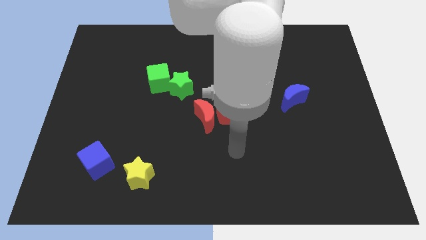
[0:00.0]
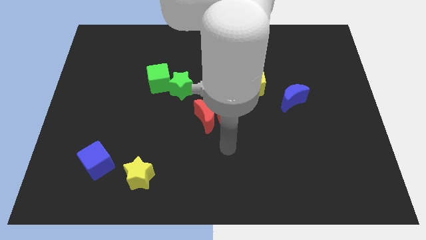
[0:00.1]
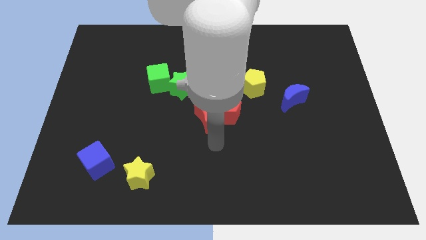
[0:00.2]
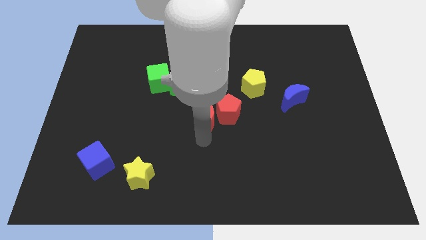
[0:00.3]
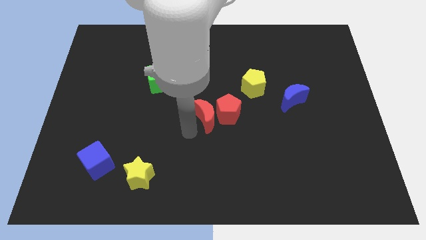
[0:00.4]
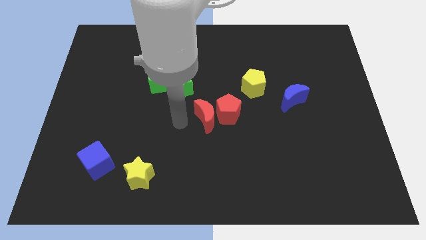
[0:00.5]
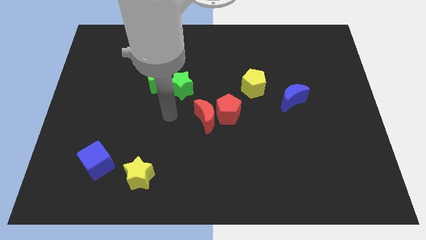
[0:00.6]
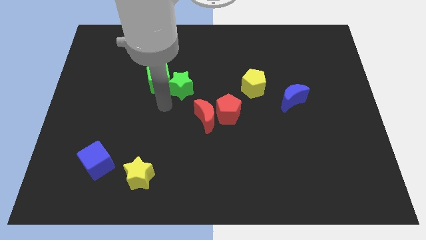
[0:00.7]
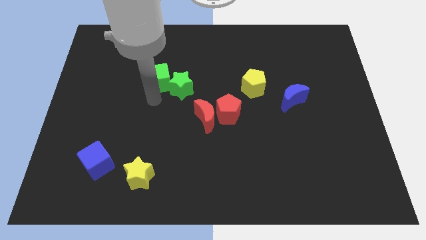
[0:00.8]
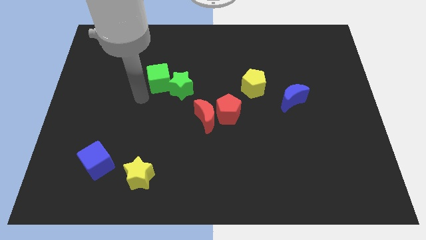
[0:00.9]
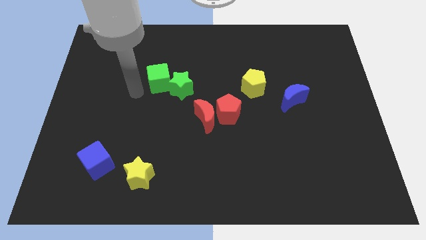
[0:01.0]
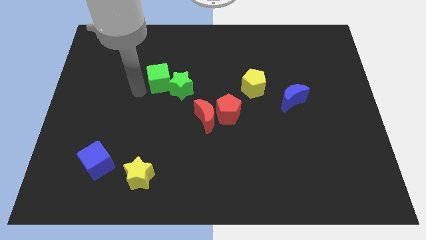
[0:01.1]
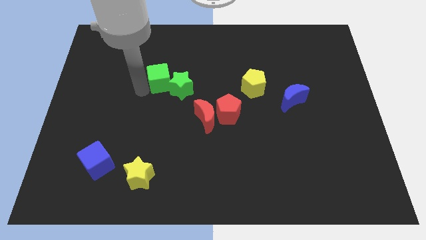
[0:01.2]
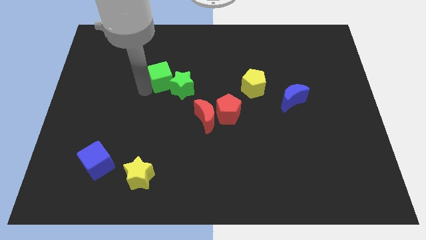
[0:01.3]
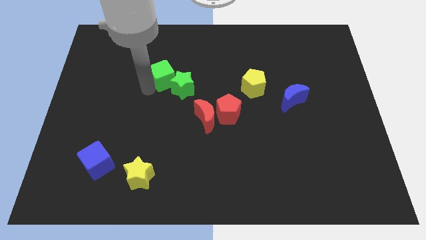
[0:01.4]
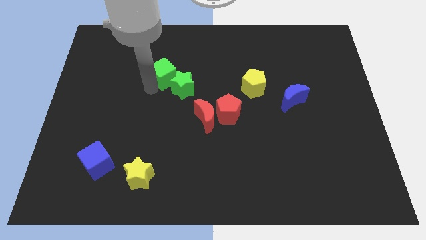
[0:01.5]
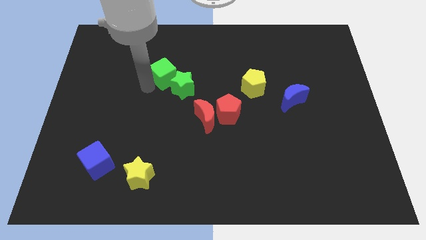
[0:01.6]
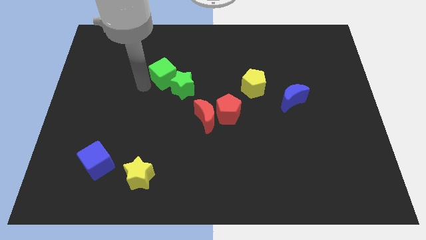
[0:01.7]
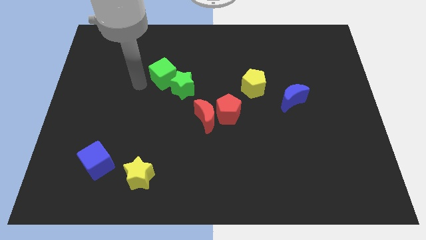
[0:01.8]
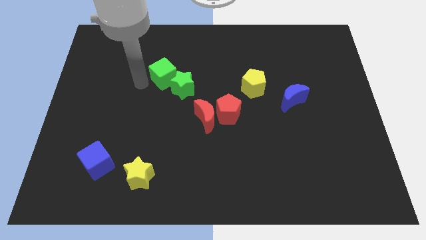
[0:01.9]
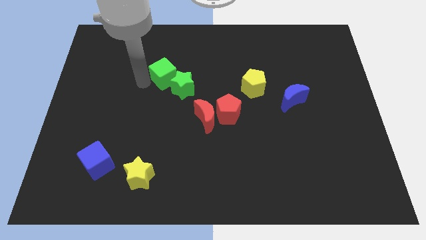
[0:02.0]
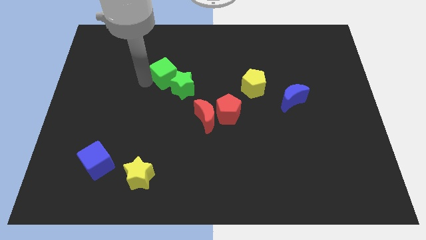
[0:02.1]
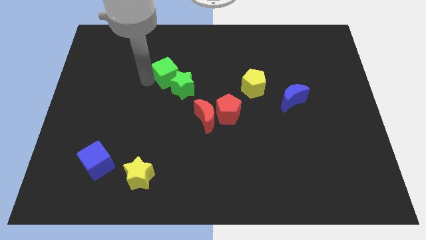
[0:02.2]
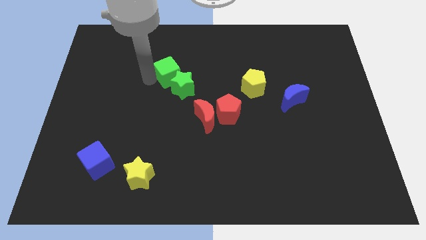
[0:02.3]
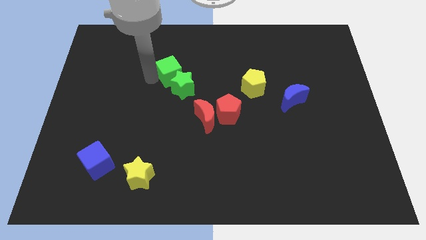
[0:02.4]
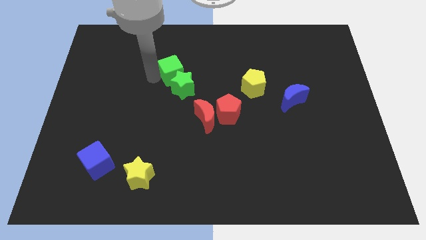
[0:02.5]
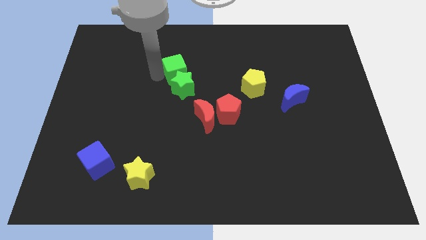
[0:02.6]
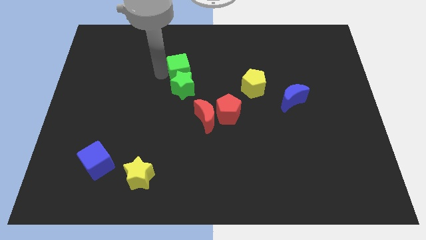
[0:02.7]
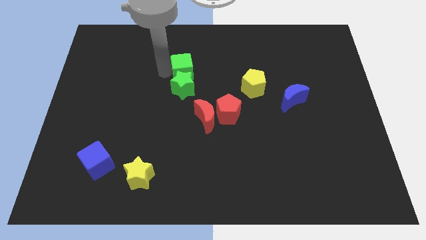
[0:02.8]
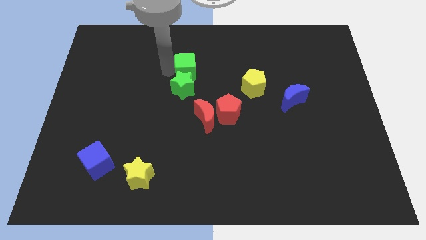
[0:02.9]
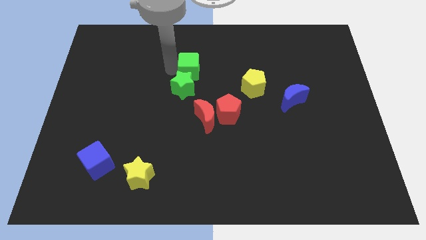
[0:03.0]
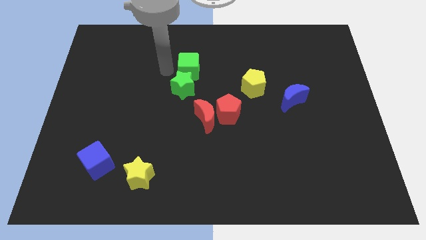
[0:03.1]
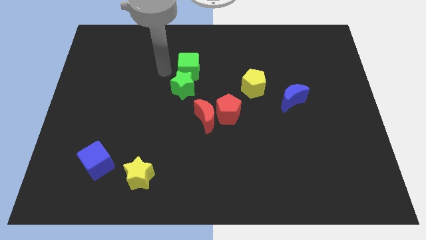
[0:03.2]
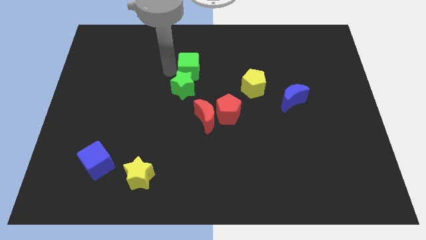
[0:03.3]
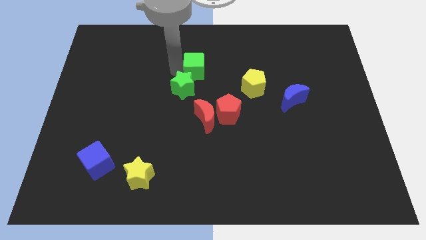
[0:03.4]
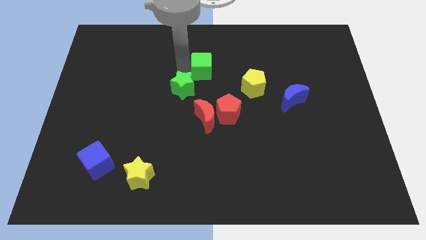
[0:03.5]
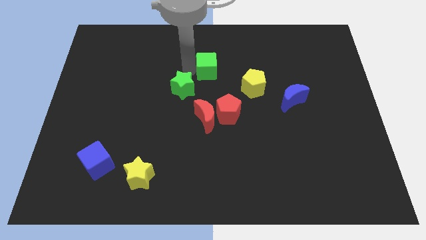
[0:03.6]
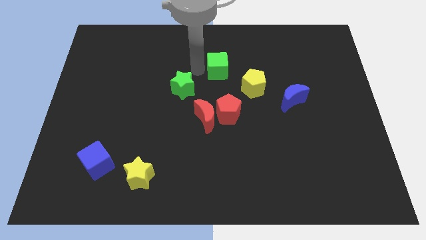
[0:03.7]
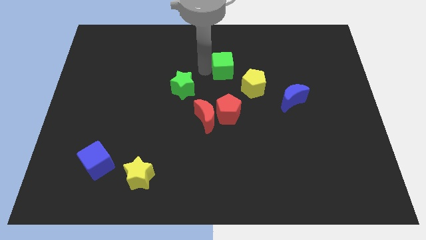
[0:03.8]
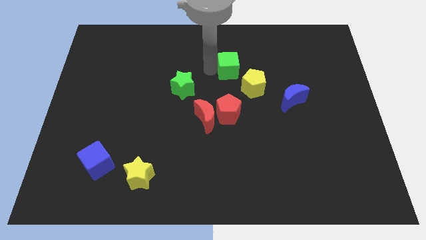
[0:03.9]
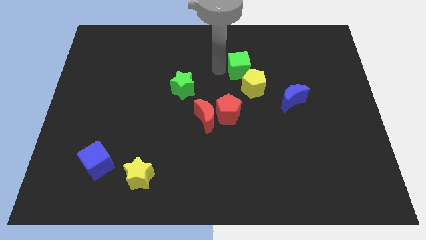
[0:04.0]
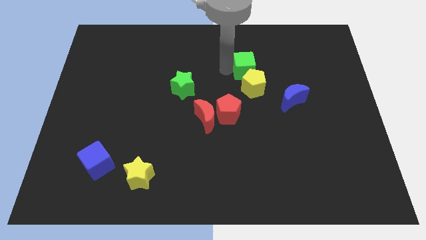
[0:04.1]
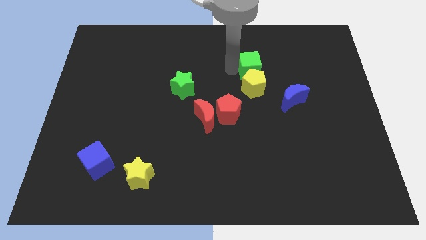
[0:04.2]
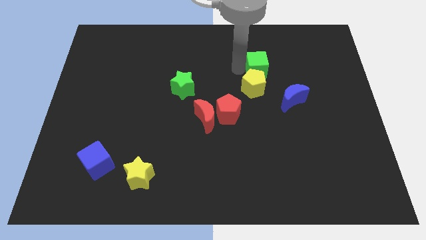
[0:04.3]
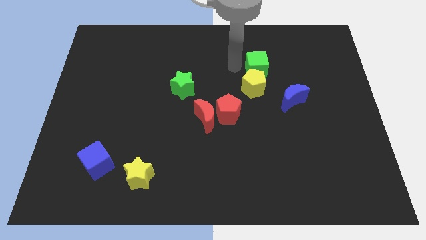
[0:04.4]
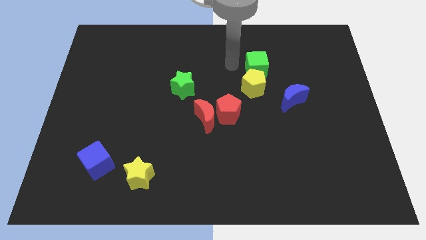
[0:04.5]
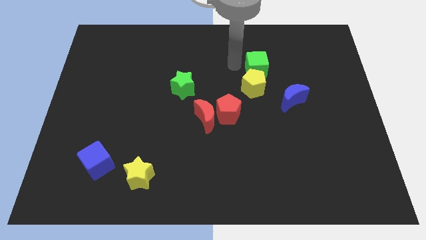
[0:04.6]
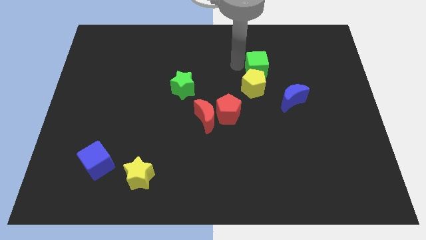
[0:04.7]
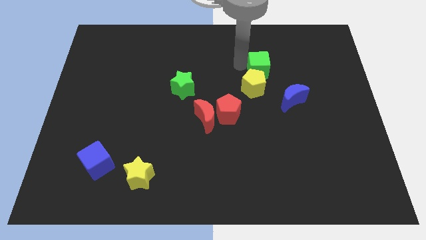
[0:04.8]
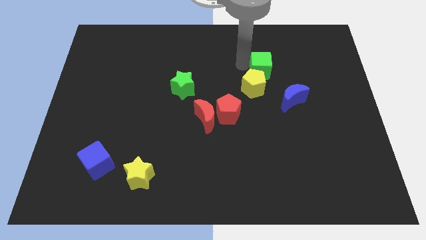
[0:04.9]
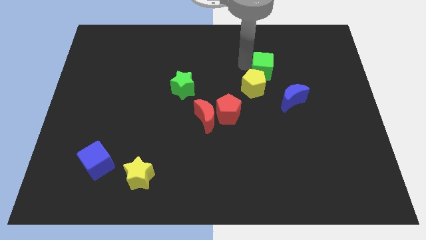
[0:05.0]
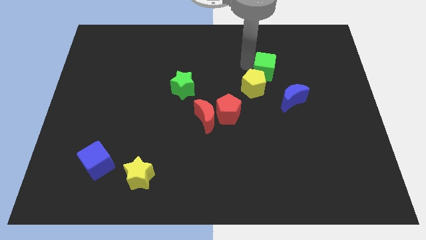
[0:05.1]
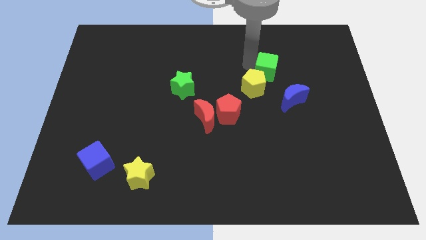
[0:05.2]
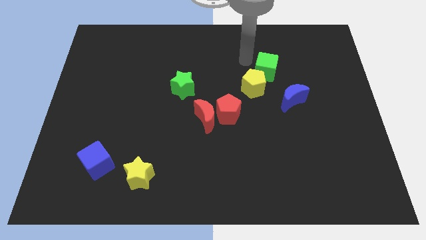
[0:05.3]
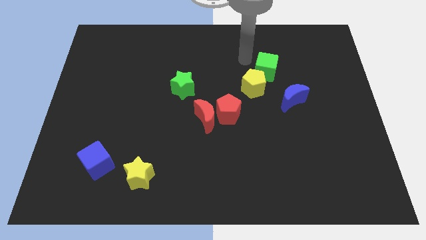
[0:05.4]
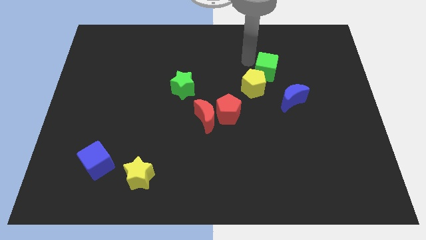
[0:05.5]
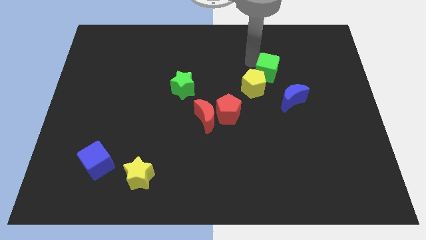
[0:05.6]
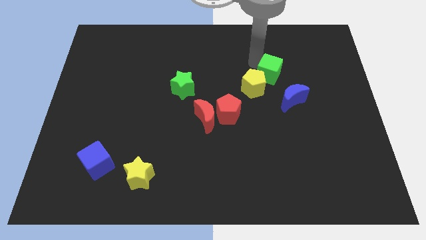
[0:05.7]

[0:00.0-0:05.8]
push the green cube to the right side of the yellow pentagon

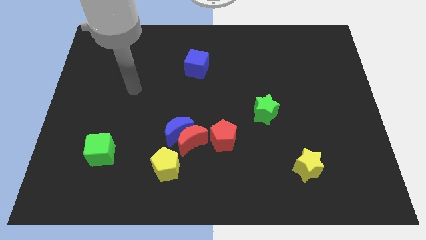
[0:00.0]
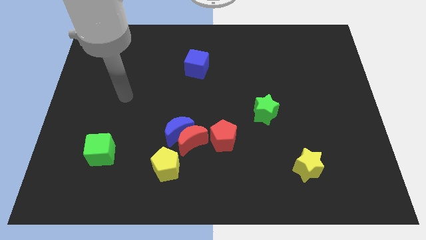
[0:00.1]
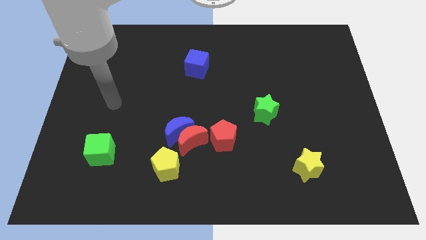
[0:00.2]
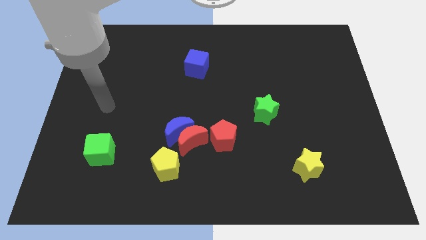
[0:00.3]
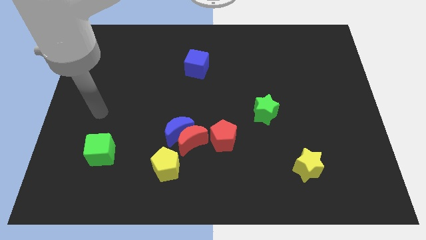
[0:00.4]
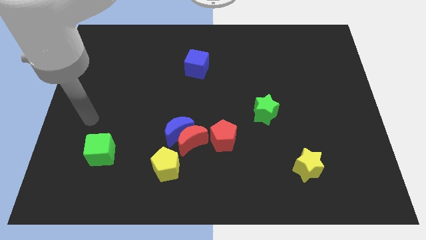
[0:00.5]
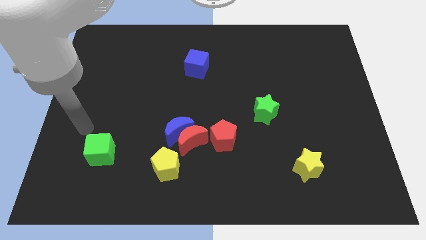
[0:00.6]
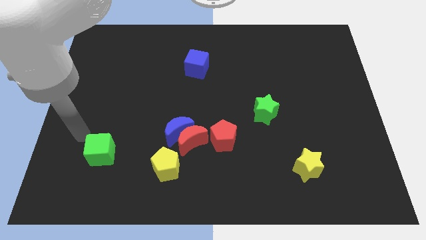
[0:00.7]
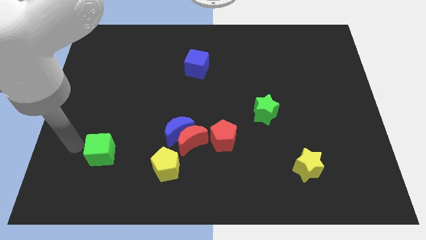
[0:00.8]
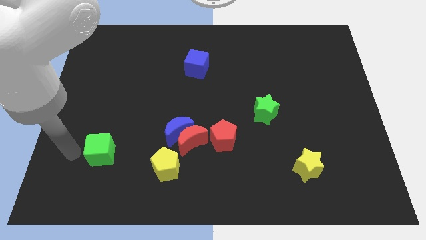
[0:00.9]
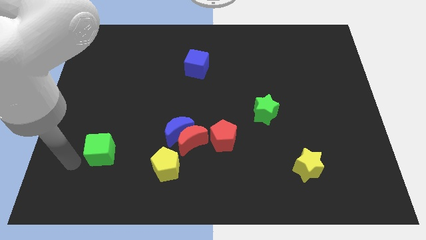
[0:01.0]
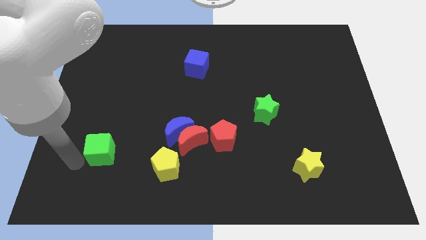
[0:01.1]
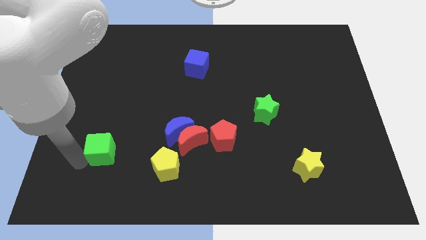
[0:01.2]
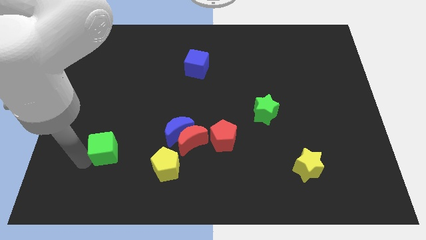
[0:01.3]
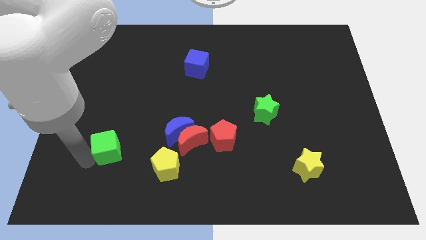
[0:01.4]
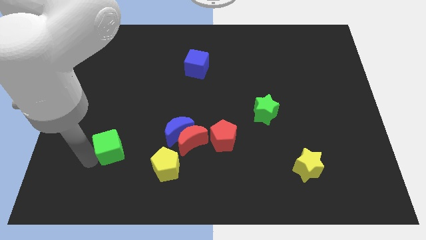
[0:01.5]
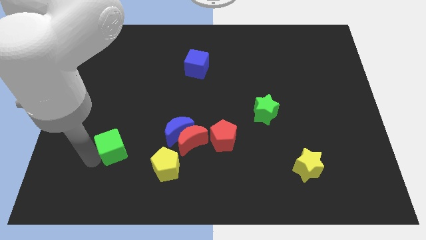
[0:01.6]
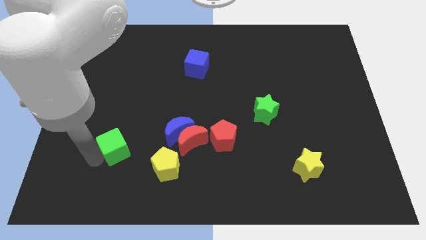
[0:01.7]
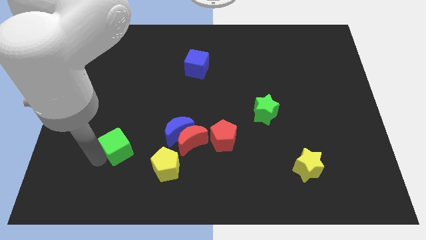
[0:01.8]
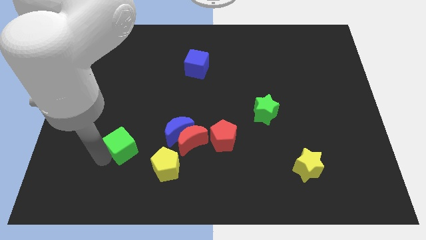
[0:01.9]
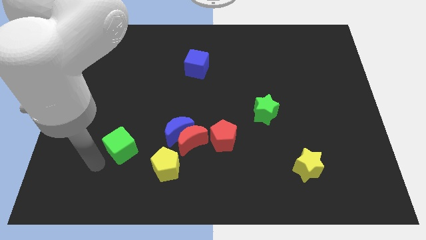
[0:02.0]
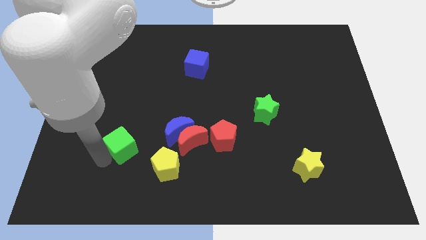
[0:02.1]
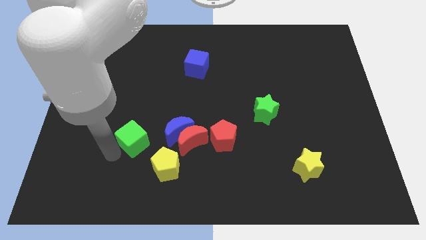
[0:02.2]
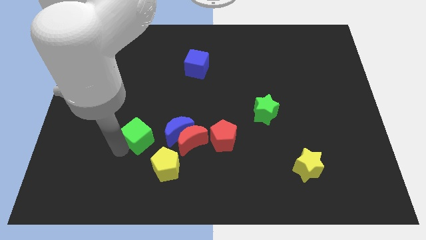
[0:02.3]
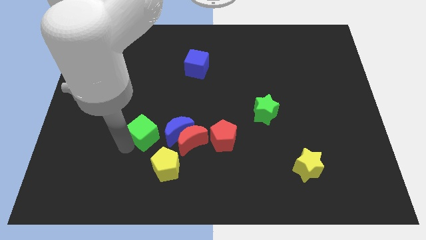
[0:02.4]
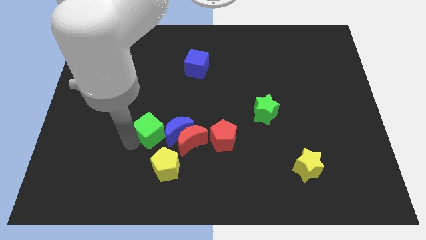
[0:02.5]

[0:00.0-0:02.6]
push the green cube to the top of the yellow pentagon
